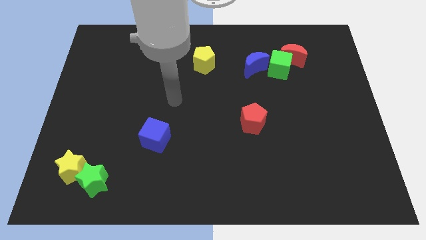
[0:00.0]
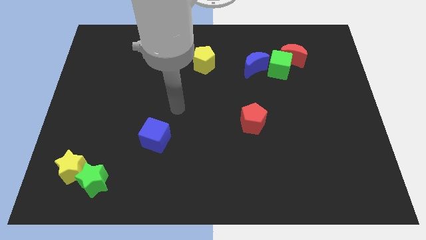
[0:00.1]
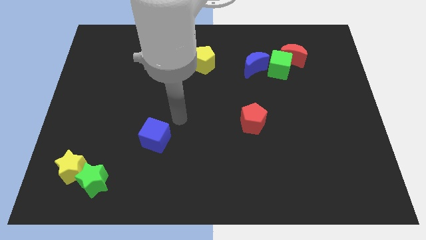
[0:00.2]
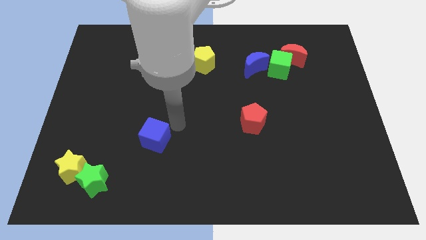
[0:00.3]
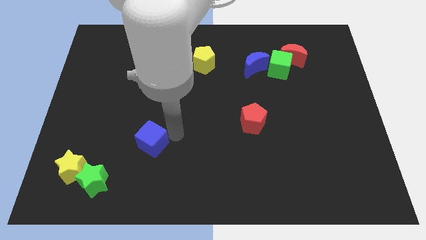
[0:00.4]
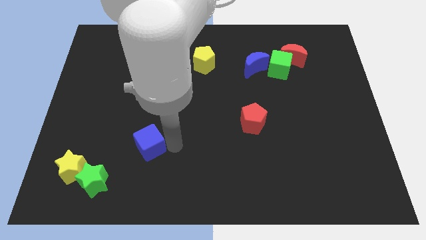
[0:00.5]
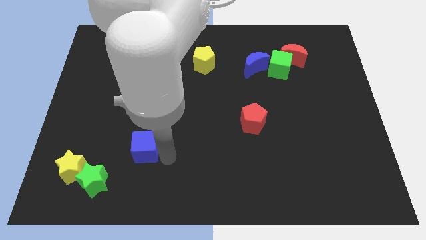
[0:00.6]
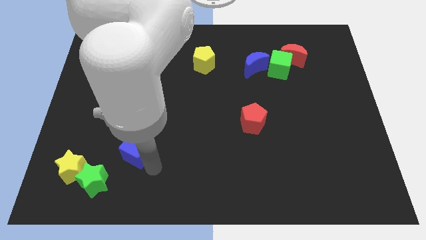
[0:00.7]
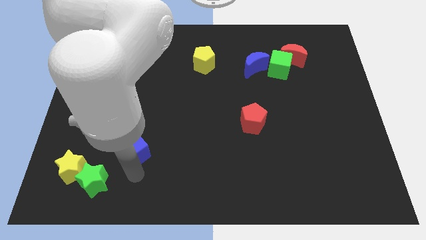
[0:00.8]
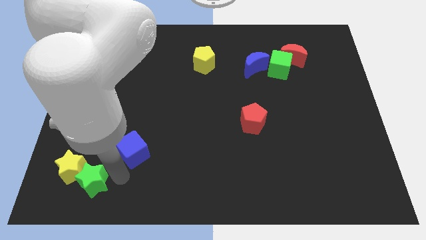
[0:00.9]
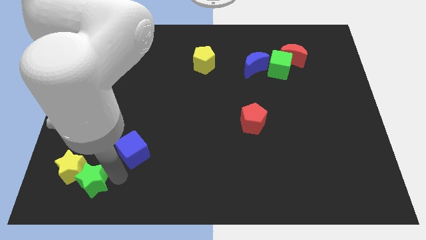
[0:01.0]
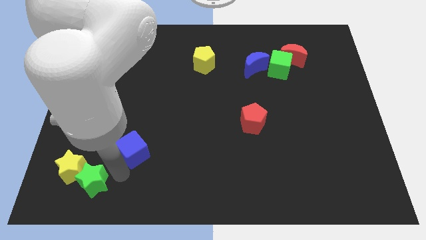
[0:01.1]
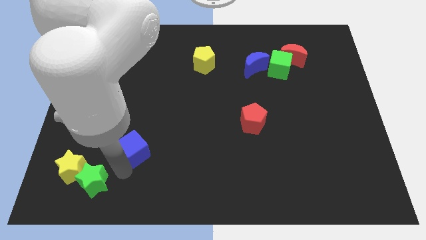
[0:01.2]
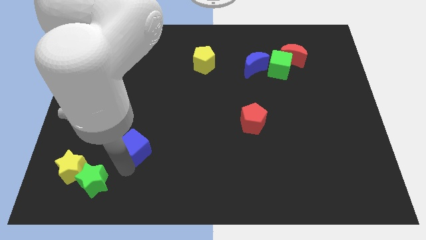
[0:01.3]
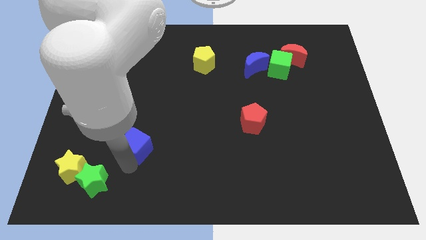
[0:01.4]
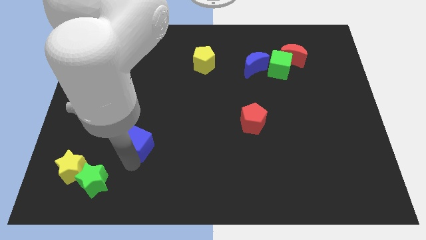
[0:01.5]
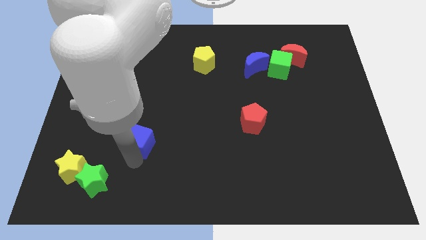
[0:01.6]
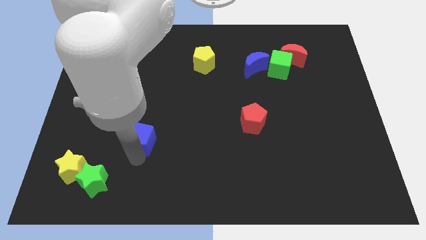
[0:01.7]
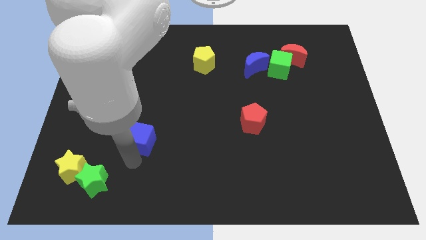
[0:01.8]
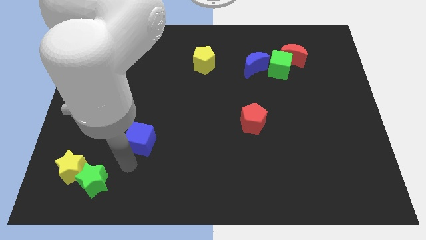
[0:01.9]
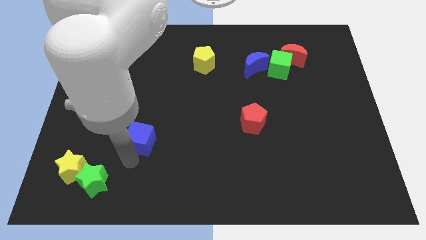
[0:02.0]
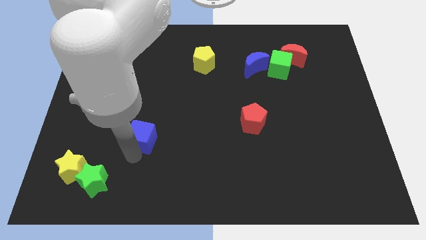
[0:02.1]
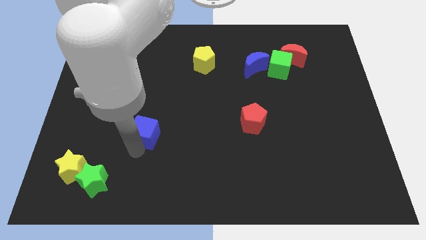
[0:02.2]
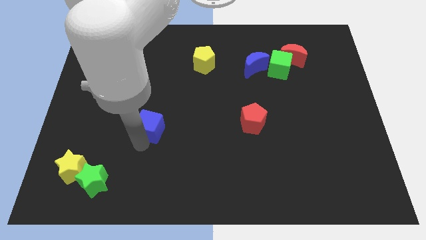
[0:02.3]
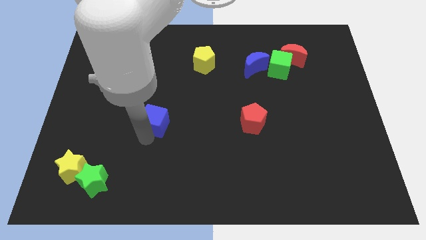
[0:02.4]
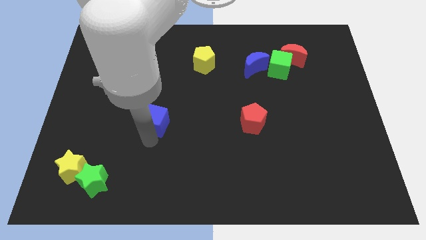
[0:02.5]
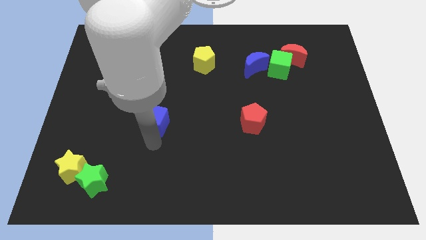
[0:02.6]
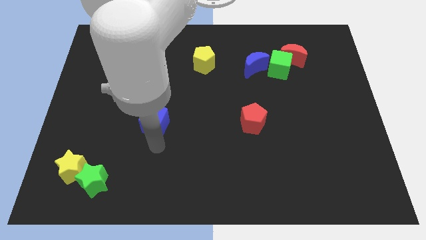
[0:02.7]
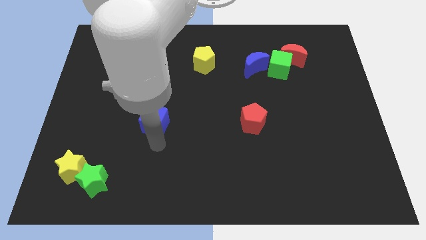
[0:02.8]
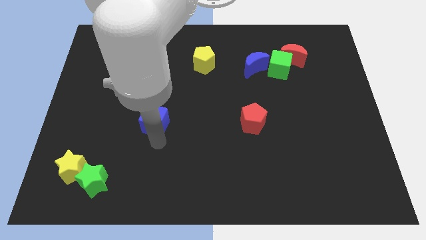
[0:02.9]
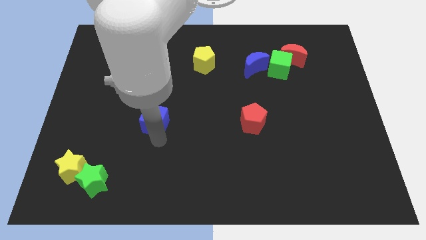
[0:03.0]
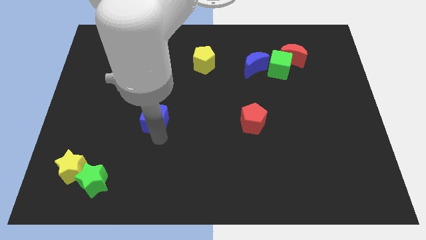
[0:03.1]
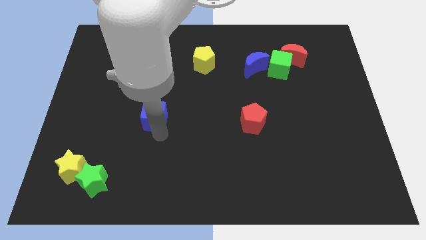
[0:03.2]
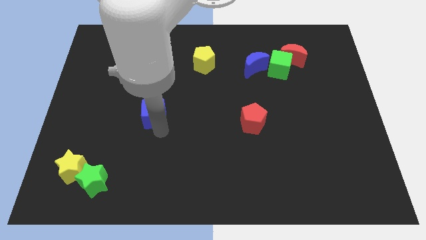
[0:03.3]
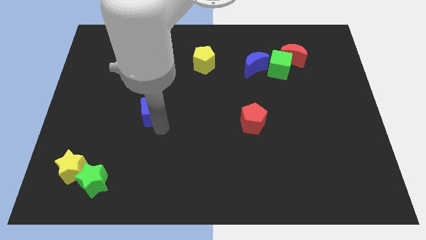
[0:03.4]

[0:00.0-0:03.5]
move the blue cube slightly up

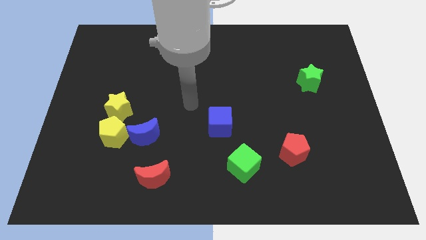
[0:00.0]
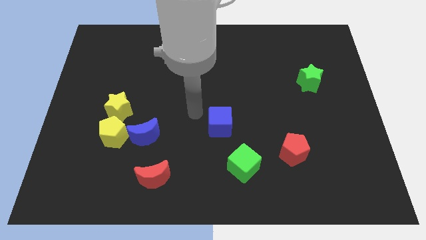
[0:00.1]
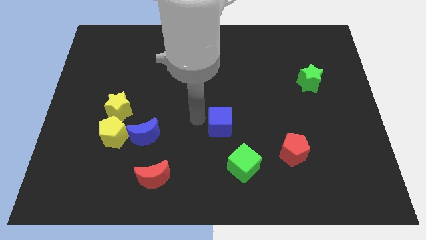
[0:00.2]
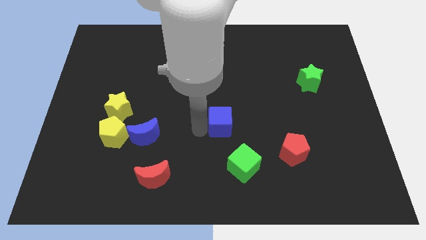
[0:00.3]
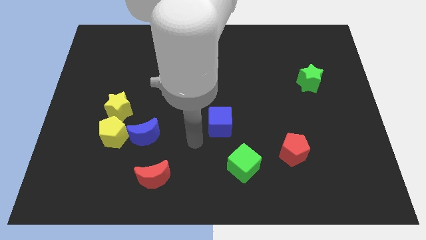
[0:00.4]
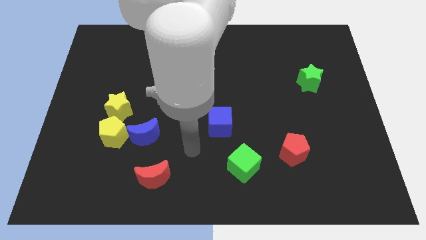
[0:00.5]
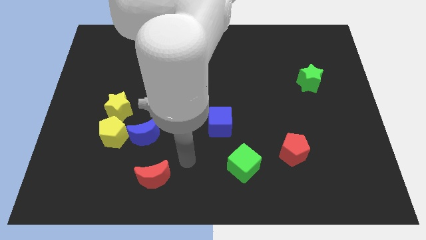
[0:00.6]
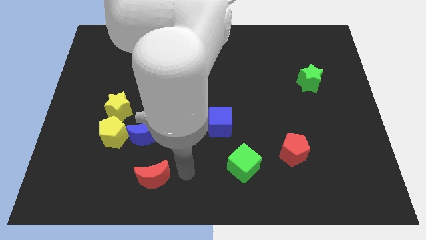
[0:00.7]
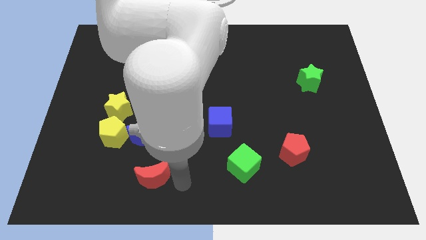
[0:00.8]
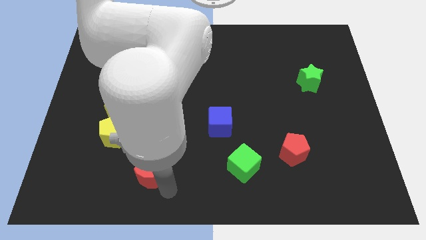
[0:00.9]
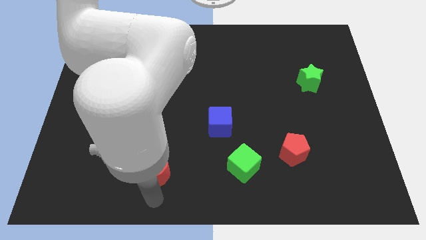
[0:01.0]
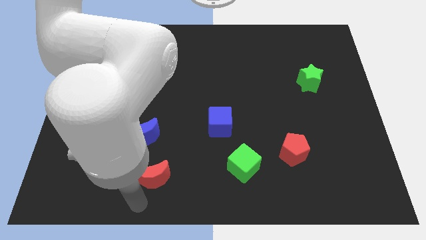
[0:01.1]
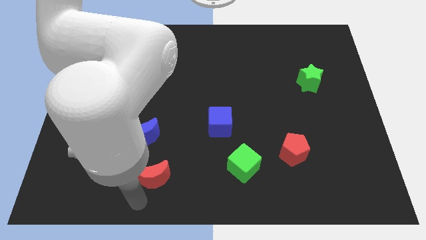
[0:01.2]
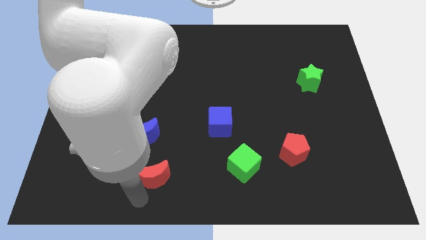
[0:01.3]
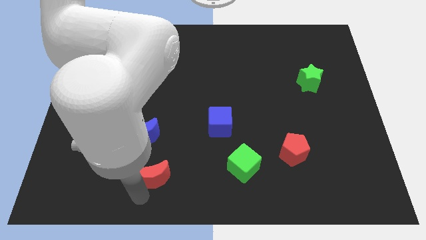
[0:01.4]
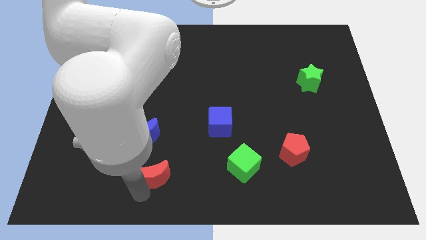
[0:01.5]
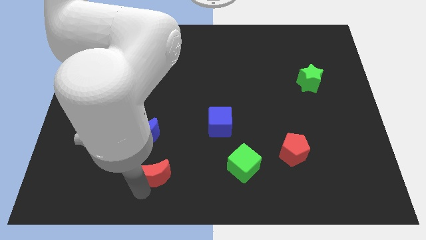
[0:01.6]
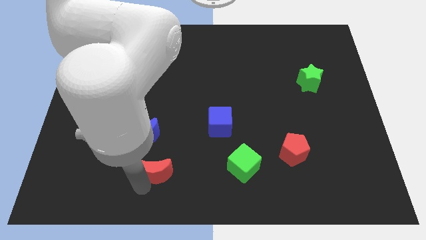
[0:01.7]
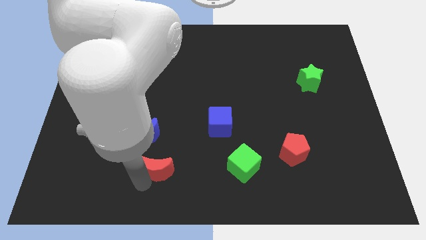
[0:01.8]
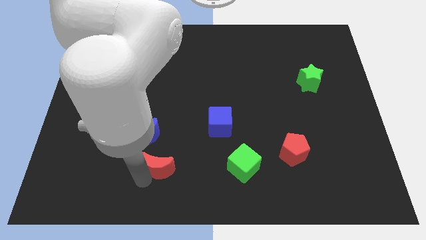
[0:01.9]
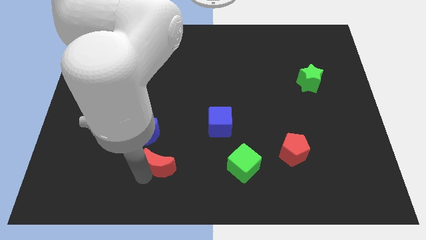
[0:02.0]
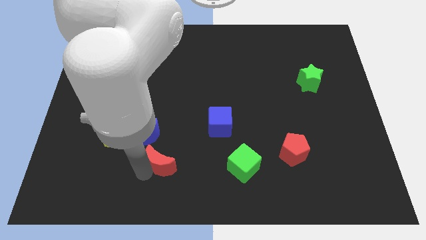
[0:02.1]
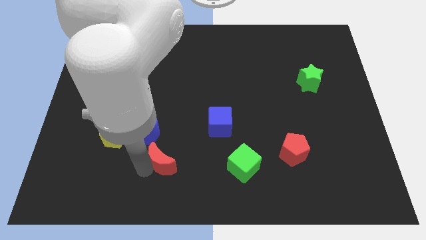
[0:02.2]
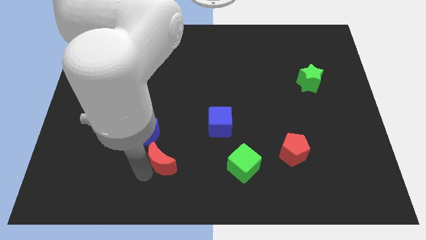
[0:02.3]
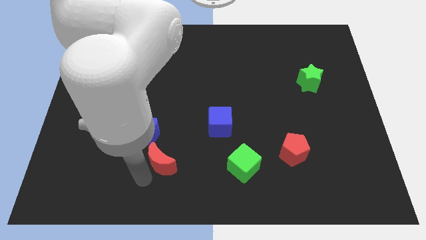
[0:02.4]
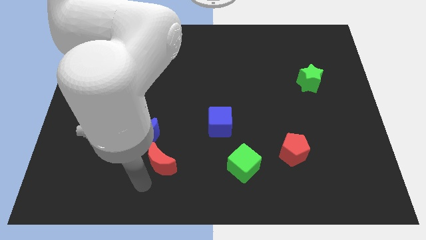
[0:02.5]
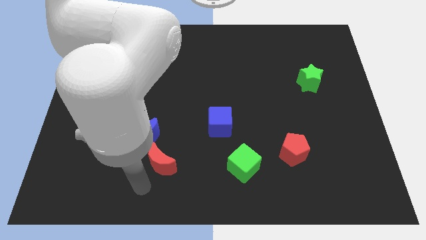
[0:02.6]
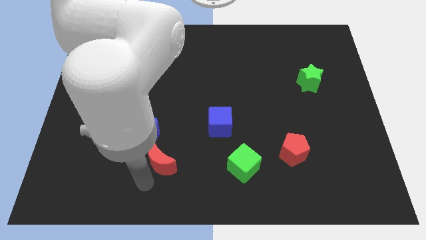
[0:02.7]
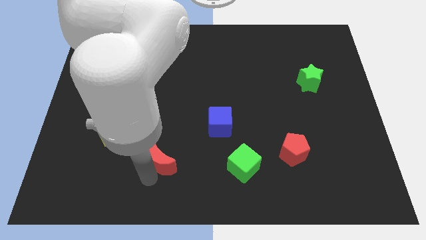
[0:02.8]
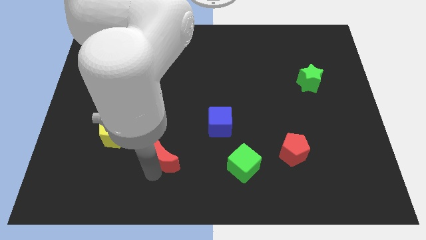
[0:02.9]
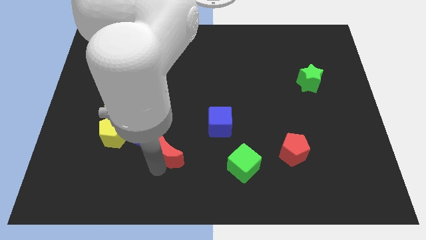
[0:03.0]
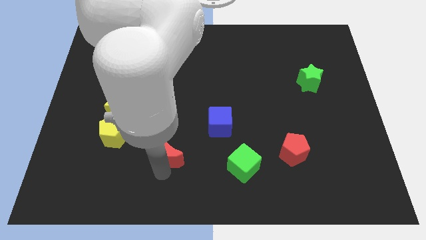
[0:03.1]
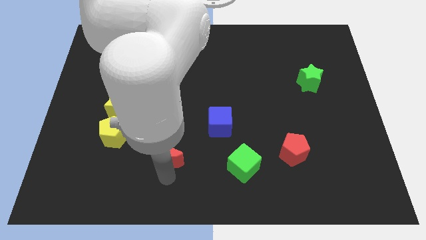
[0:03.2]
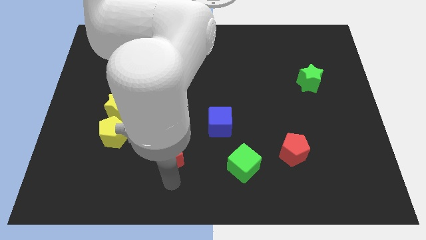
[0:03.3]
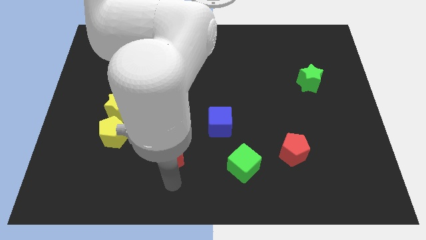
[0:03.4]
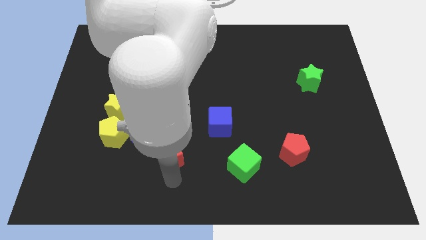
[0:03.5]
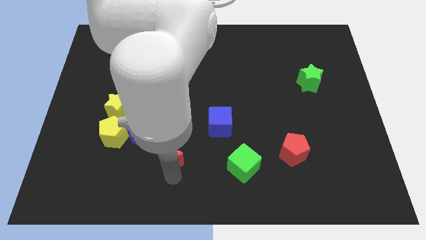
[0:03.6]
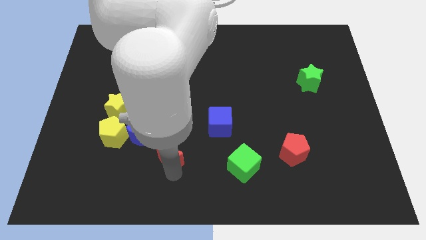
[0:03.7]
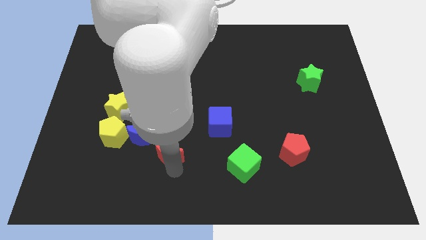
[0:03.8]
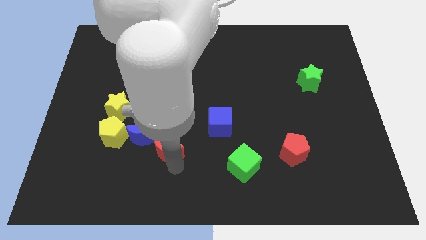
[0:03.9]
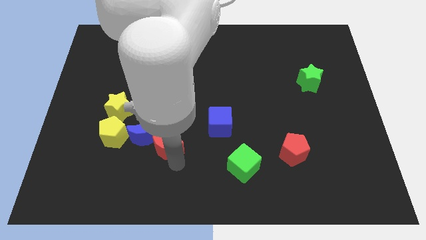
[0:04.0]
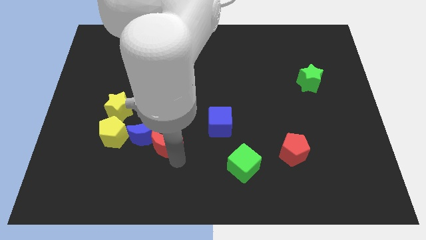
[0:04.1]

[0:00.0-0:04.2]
move the red moon up a little bit

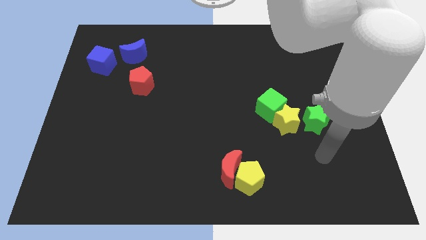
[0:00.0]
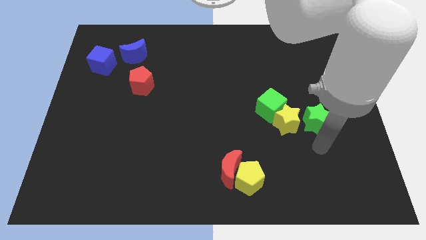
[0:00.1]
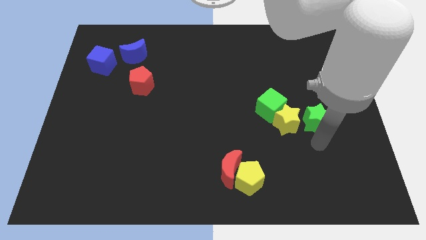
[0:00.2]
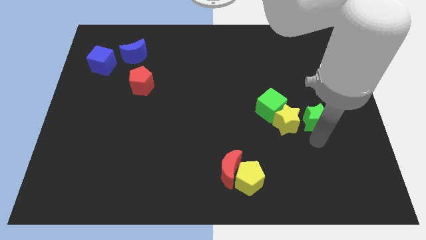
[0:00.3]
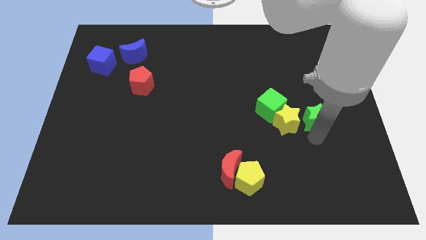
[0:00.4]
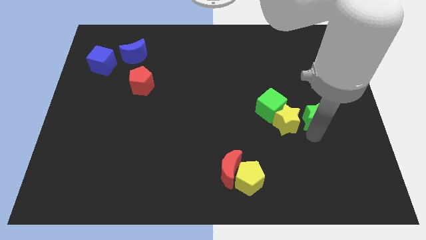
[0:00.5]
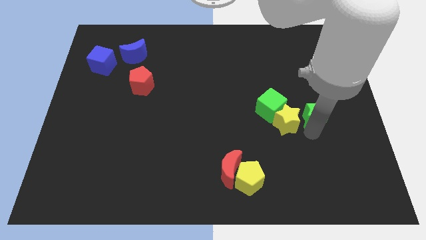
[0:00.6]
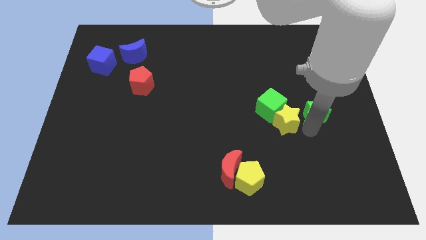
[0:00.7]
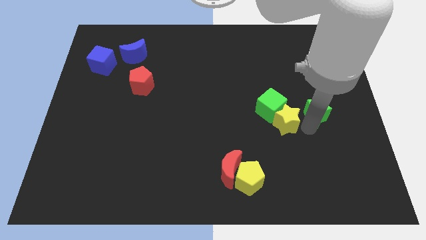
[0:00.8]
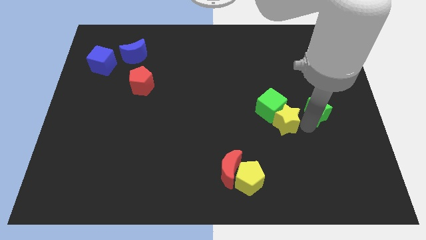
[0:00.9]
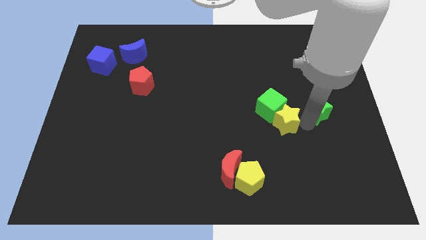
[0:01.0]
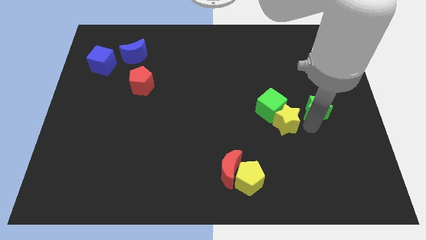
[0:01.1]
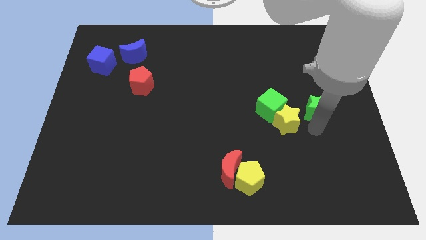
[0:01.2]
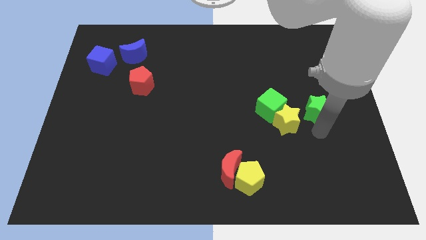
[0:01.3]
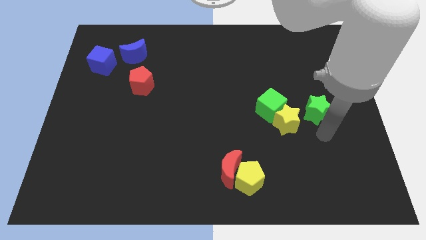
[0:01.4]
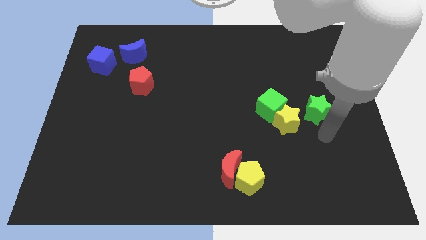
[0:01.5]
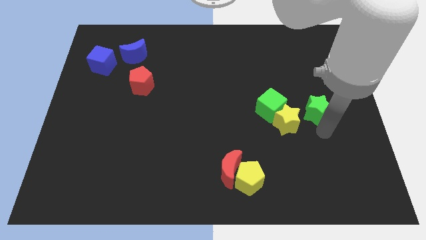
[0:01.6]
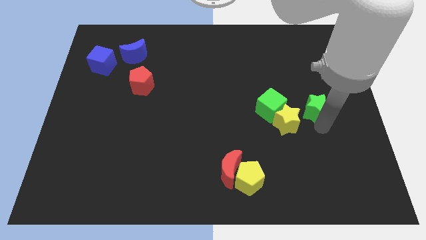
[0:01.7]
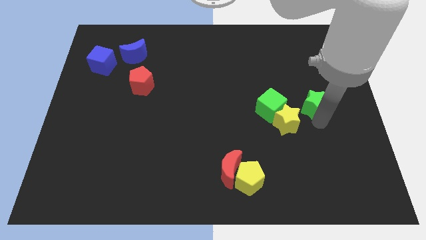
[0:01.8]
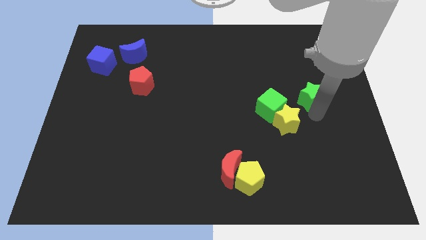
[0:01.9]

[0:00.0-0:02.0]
push the green star up a little
